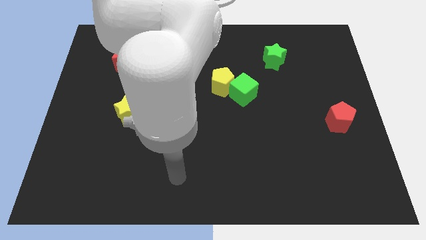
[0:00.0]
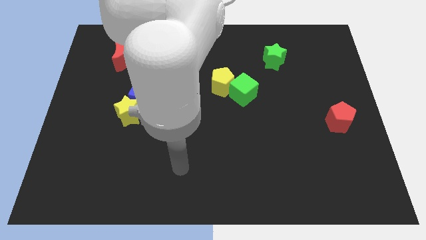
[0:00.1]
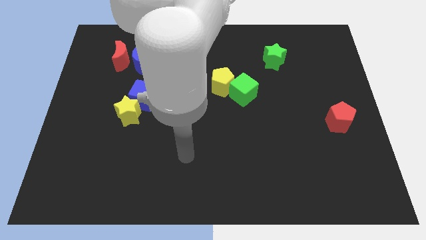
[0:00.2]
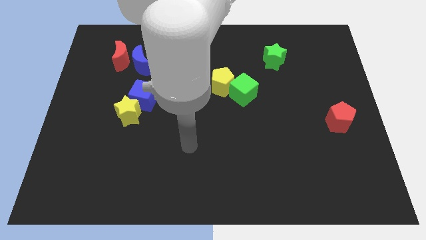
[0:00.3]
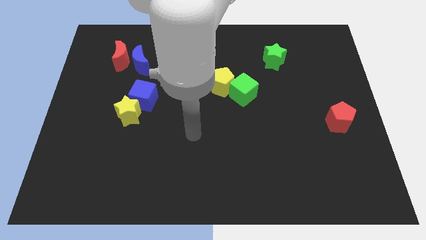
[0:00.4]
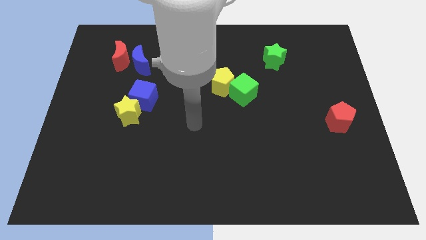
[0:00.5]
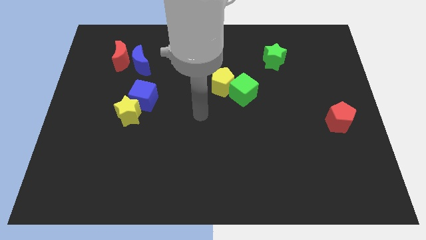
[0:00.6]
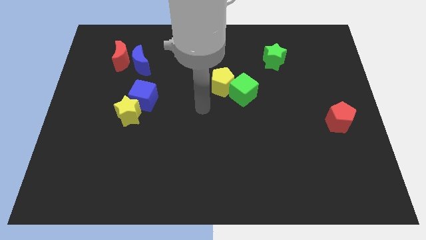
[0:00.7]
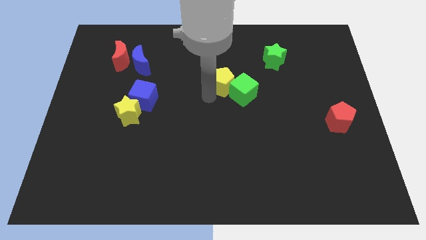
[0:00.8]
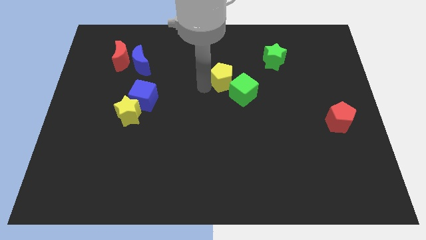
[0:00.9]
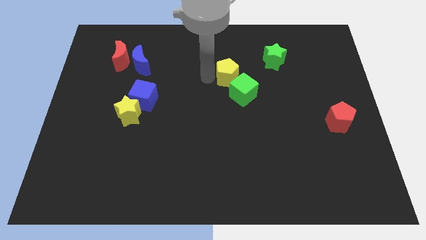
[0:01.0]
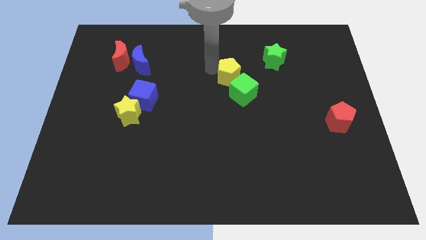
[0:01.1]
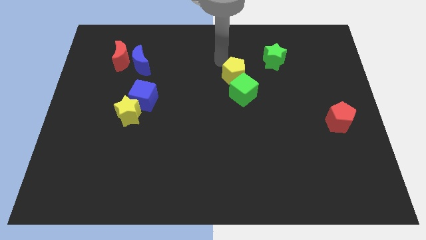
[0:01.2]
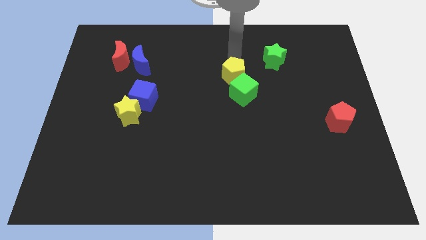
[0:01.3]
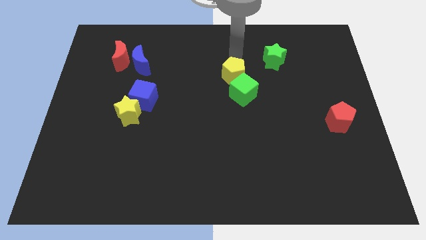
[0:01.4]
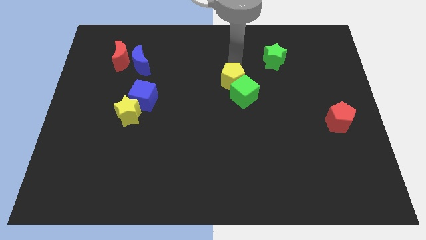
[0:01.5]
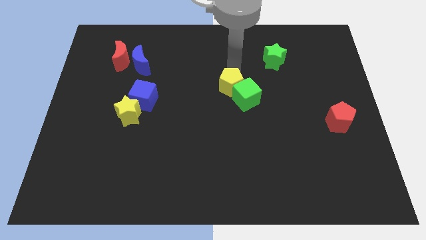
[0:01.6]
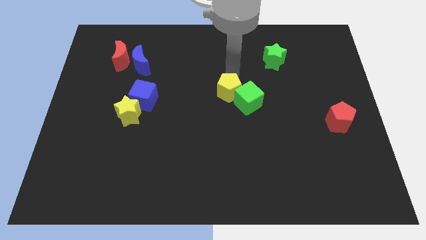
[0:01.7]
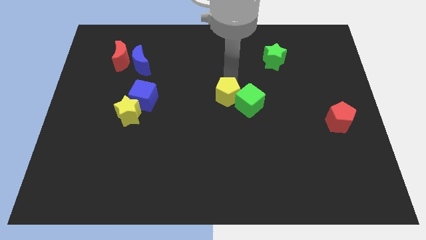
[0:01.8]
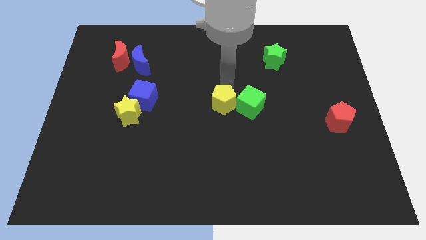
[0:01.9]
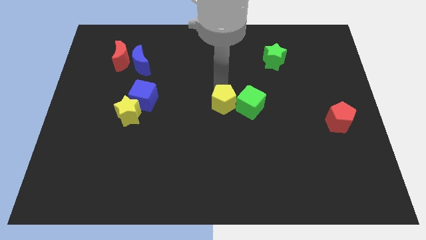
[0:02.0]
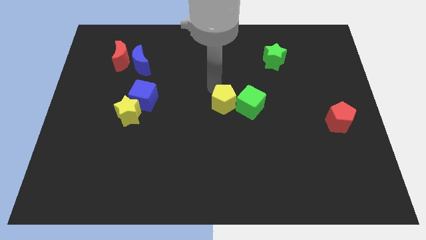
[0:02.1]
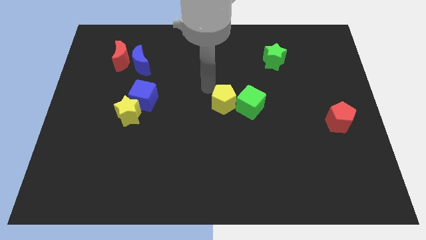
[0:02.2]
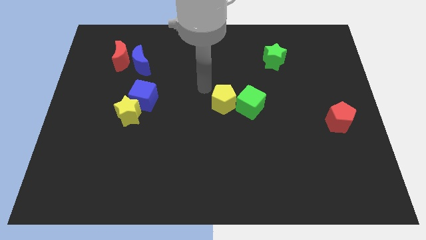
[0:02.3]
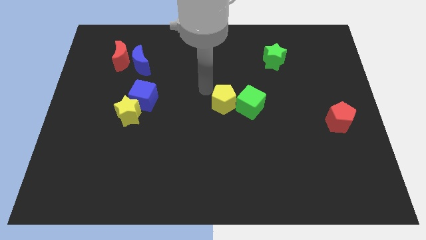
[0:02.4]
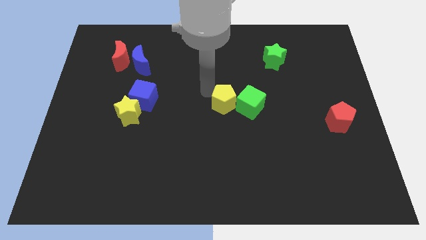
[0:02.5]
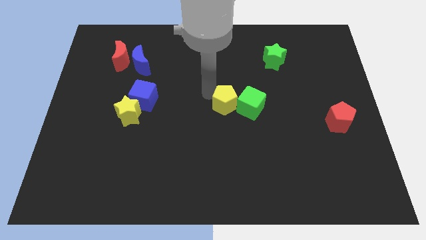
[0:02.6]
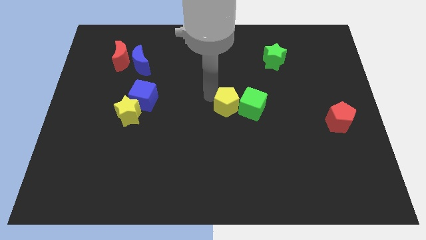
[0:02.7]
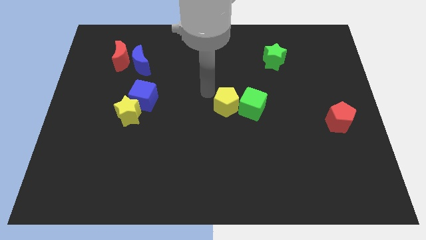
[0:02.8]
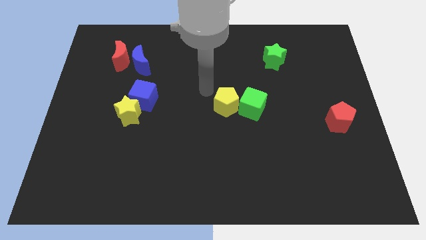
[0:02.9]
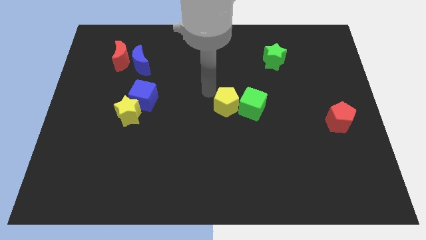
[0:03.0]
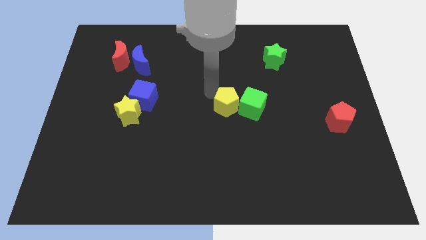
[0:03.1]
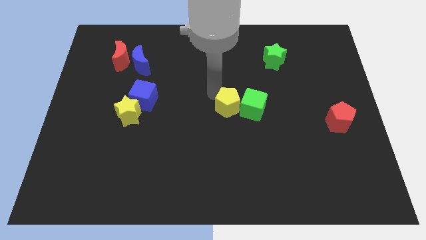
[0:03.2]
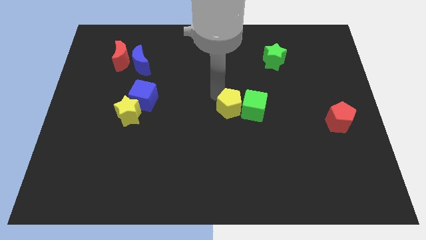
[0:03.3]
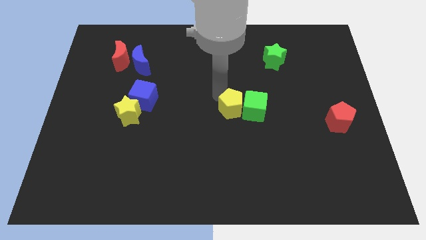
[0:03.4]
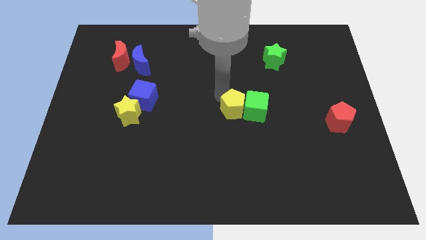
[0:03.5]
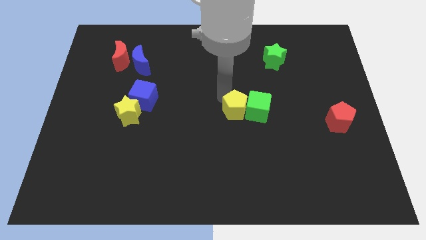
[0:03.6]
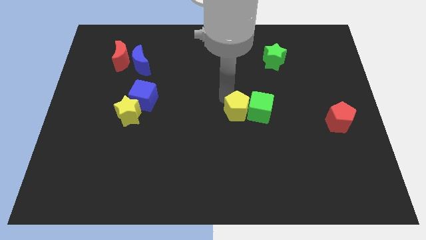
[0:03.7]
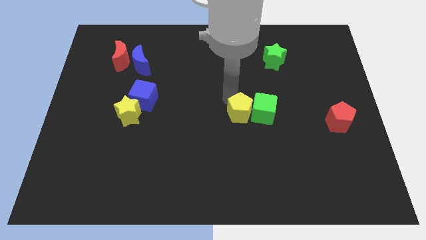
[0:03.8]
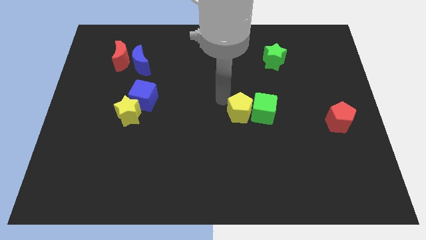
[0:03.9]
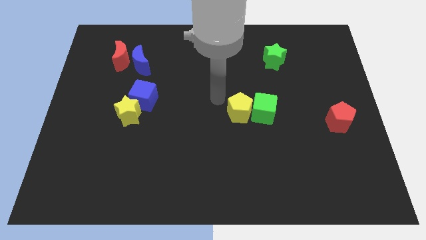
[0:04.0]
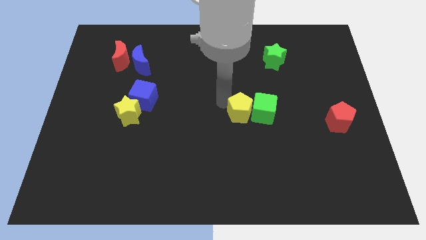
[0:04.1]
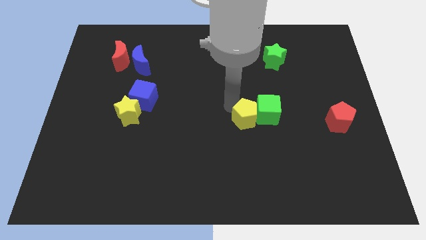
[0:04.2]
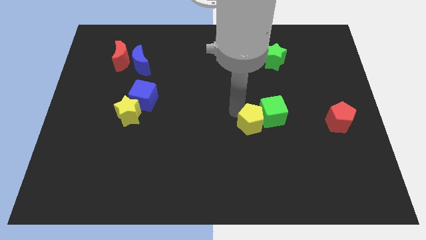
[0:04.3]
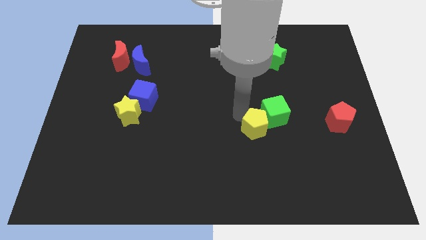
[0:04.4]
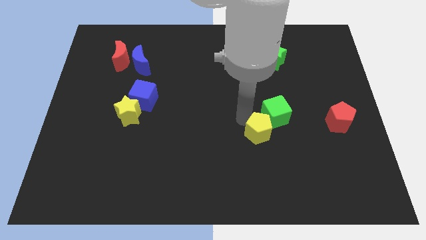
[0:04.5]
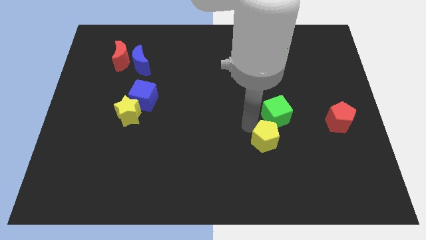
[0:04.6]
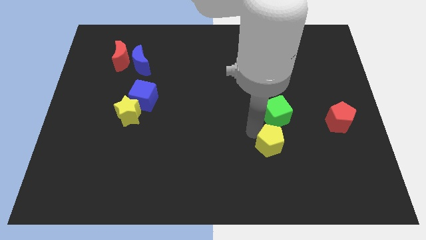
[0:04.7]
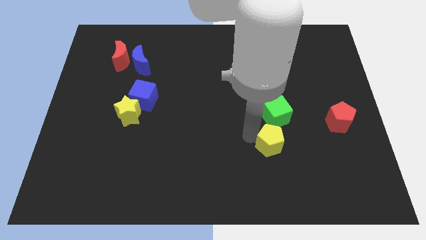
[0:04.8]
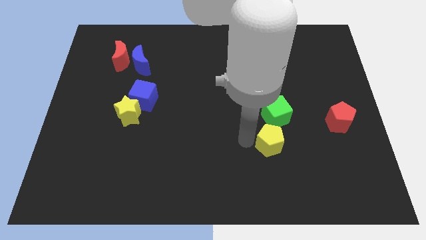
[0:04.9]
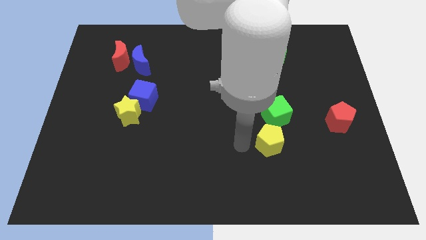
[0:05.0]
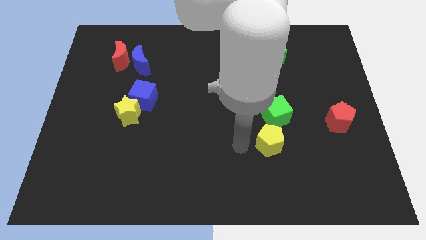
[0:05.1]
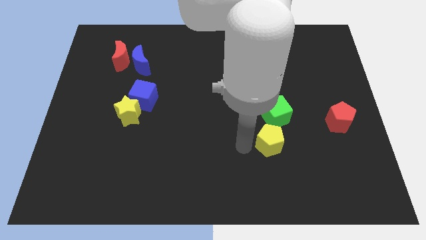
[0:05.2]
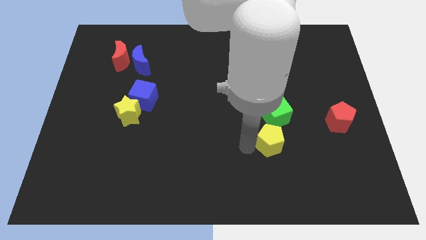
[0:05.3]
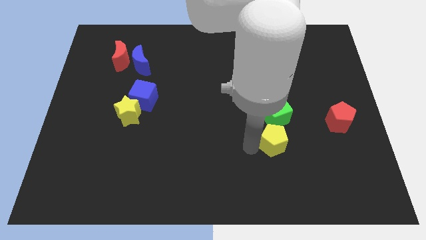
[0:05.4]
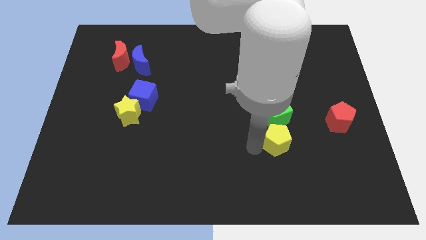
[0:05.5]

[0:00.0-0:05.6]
push the yellow pentagon downwards and to the right diagonally

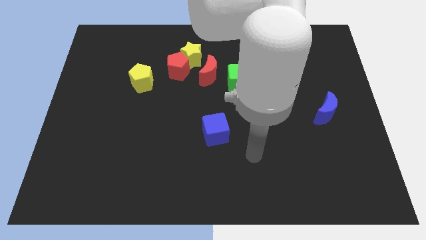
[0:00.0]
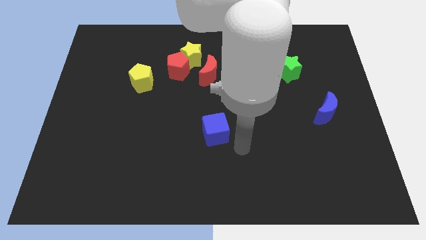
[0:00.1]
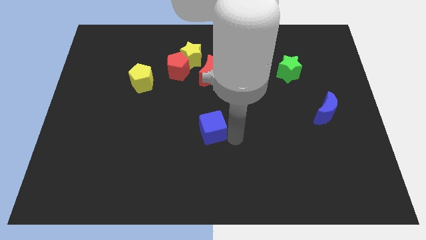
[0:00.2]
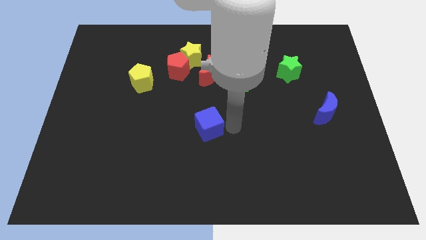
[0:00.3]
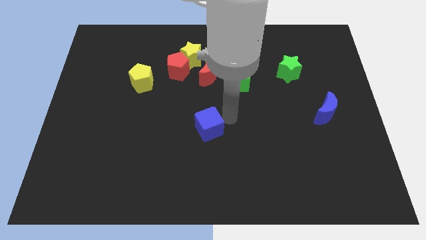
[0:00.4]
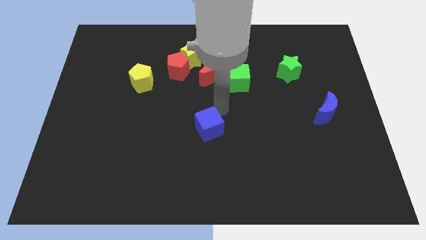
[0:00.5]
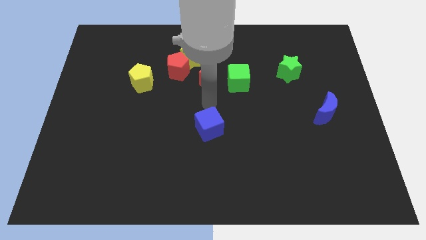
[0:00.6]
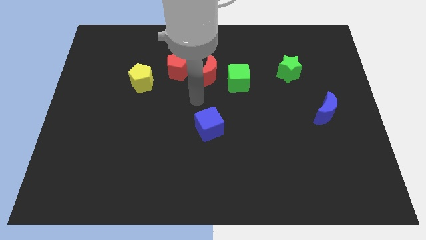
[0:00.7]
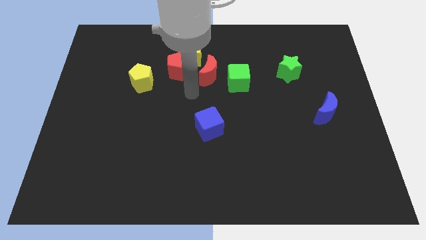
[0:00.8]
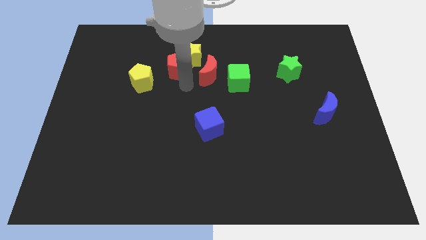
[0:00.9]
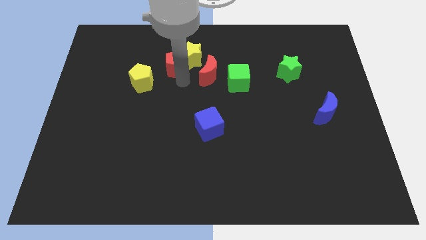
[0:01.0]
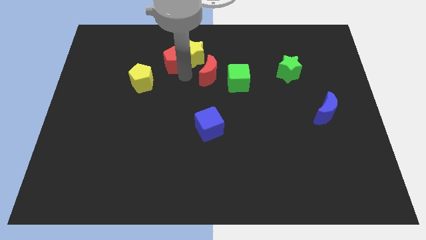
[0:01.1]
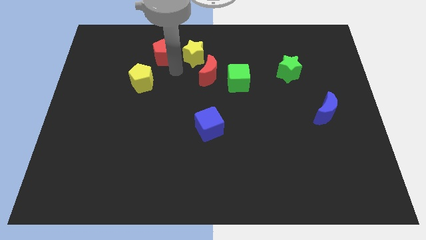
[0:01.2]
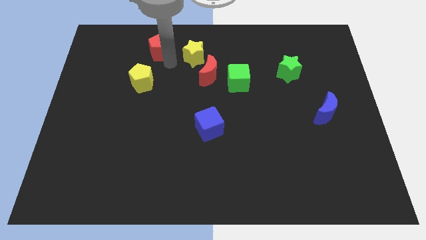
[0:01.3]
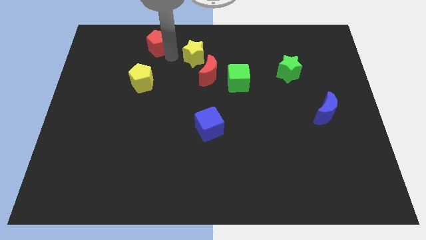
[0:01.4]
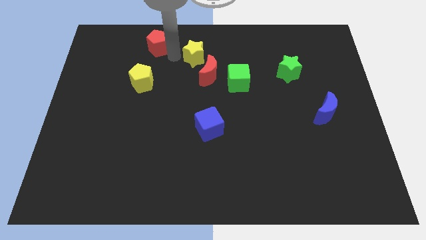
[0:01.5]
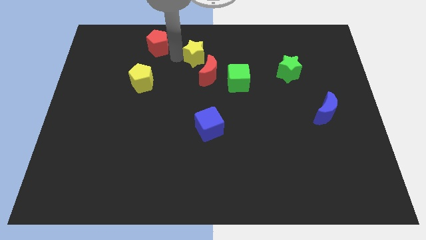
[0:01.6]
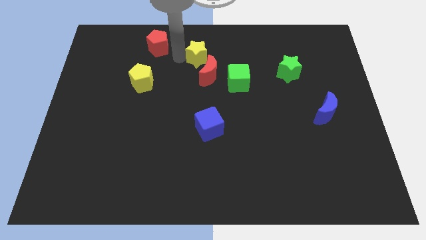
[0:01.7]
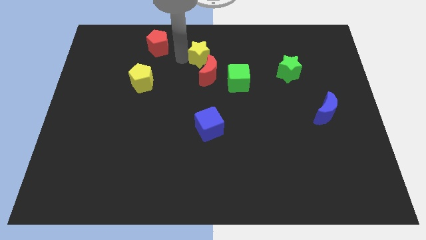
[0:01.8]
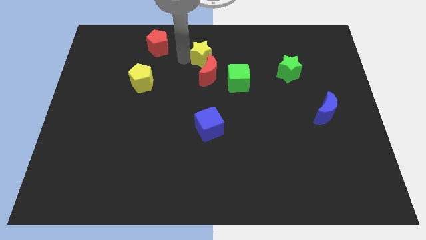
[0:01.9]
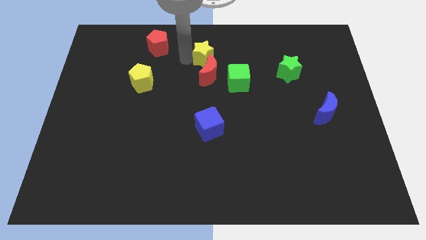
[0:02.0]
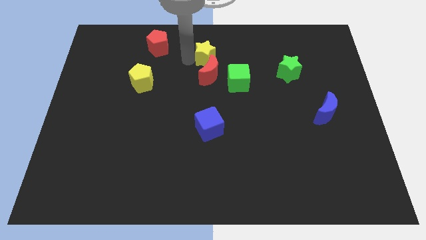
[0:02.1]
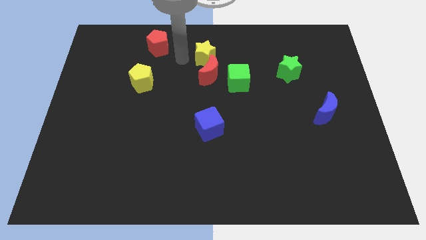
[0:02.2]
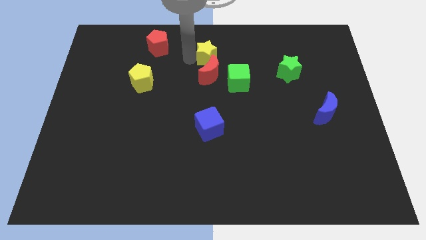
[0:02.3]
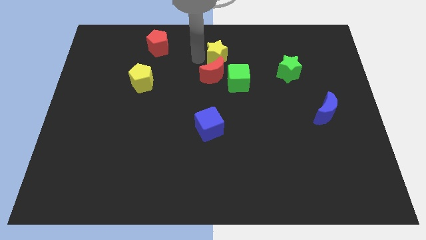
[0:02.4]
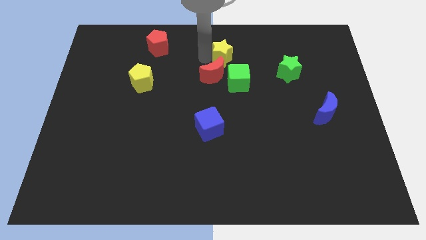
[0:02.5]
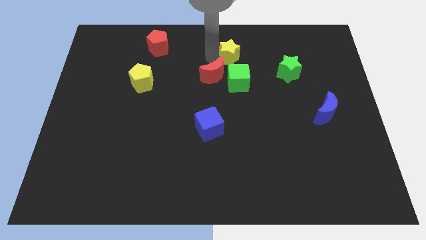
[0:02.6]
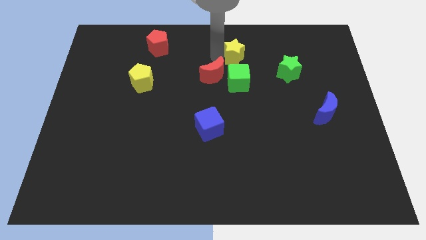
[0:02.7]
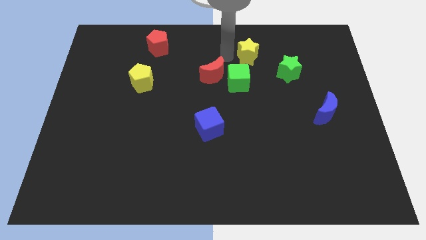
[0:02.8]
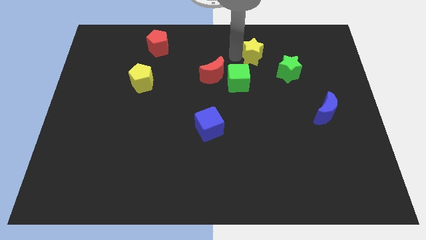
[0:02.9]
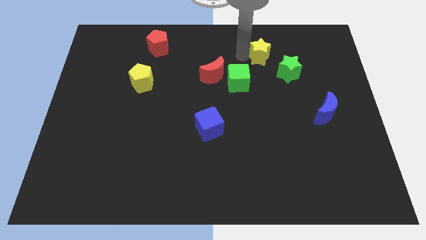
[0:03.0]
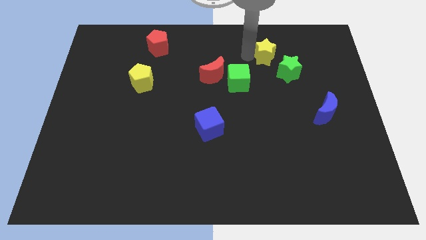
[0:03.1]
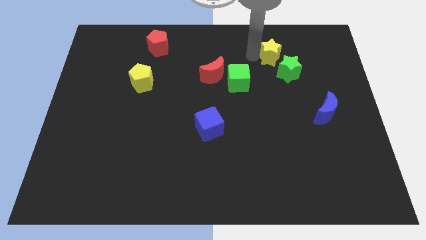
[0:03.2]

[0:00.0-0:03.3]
push the yellow star right
